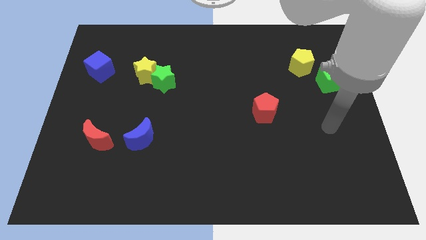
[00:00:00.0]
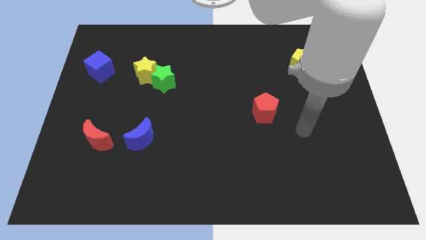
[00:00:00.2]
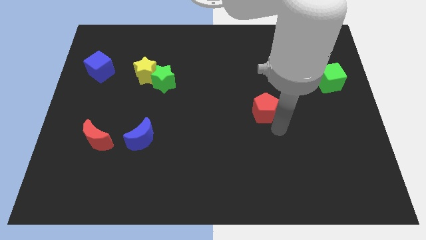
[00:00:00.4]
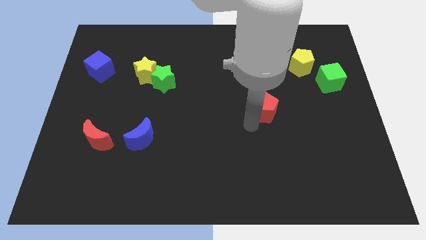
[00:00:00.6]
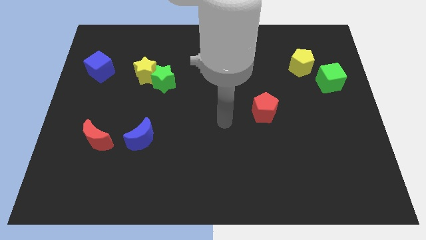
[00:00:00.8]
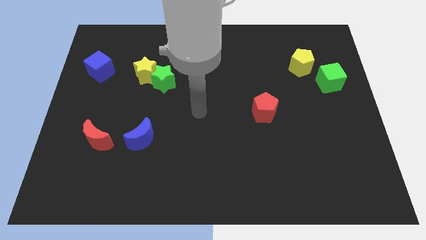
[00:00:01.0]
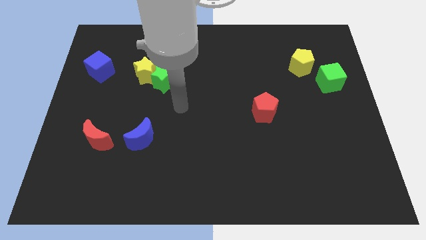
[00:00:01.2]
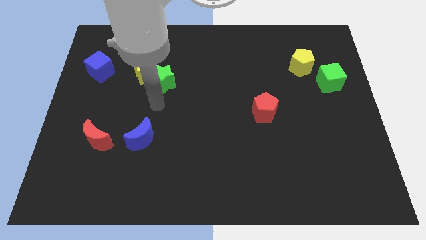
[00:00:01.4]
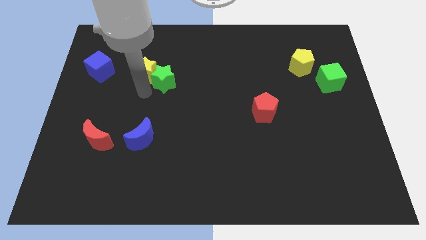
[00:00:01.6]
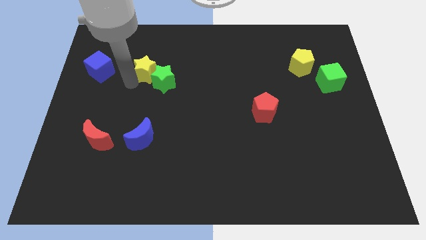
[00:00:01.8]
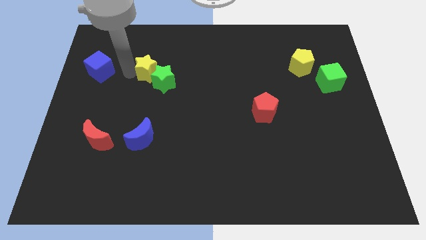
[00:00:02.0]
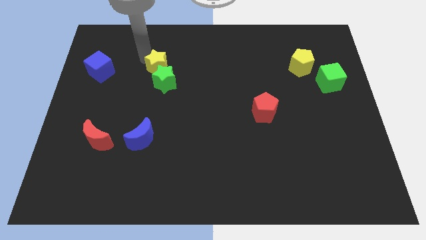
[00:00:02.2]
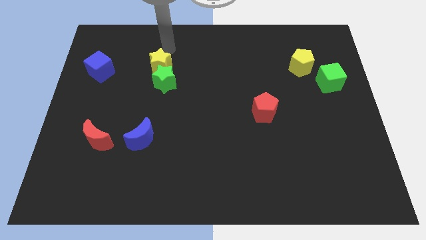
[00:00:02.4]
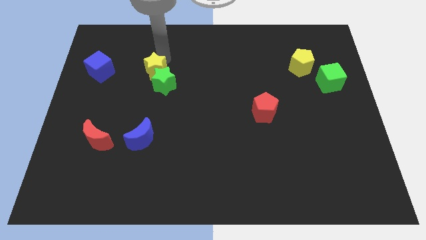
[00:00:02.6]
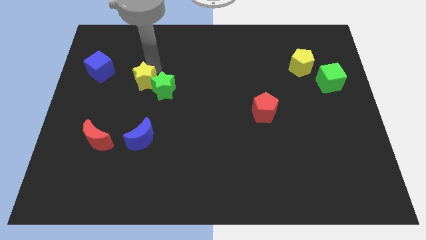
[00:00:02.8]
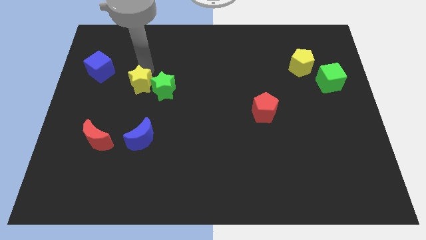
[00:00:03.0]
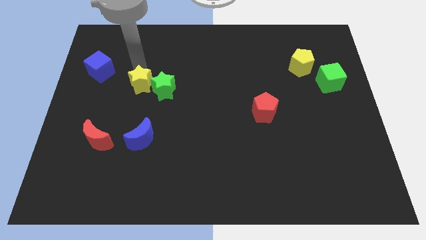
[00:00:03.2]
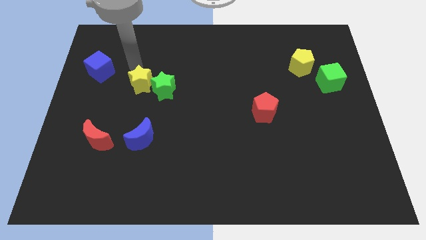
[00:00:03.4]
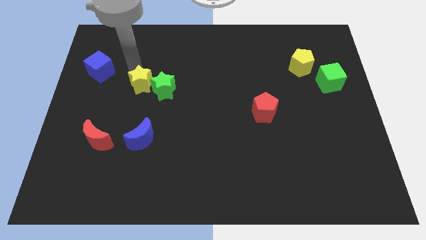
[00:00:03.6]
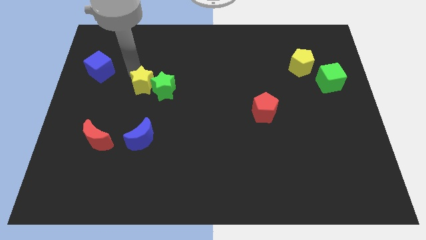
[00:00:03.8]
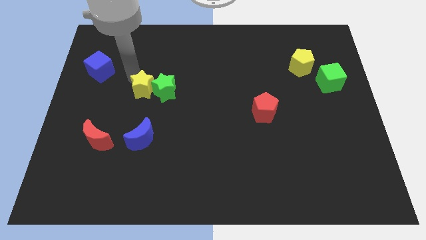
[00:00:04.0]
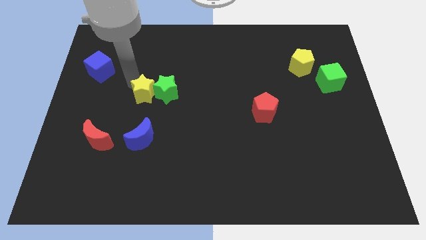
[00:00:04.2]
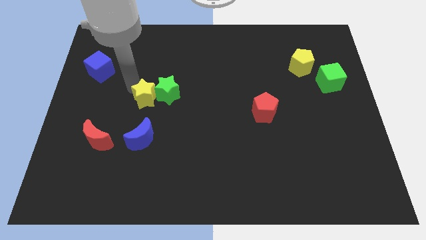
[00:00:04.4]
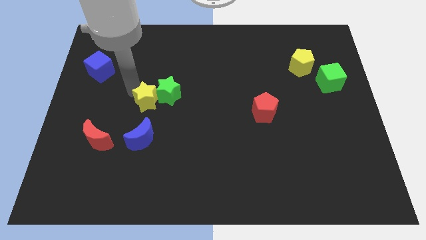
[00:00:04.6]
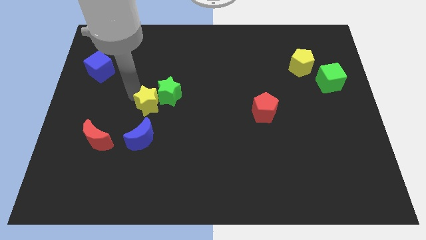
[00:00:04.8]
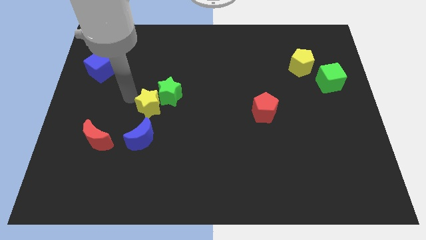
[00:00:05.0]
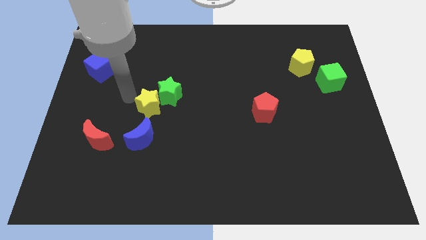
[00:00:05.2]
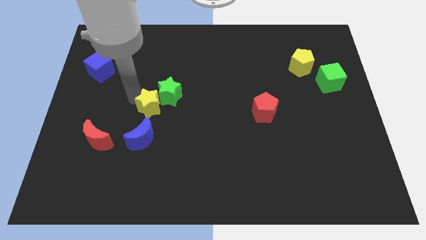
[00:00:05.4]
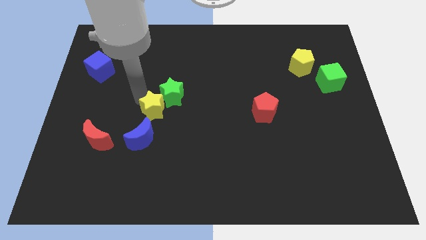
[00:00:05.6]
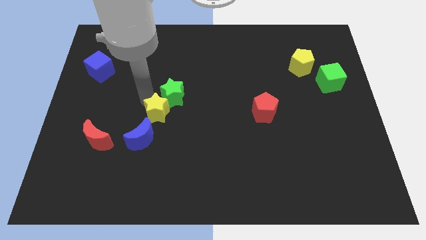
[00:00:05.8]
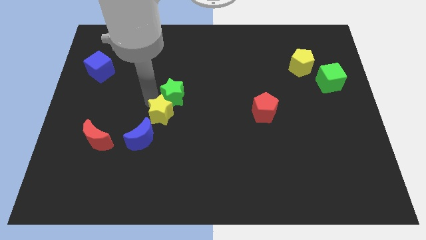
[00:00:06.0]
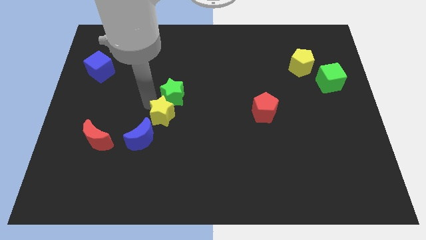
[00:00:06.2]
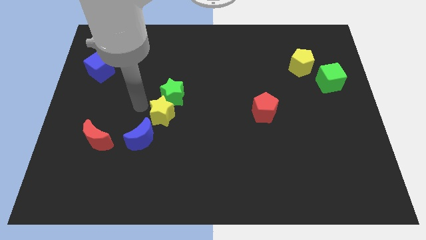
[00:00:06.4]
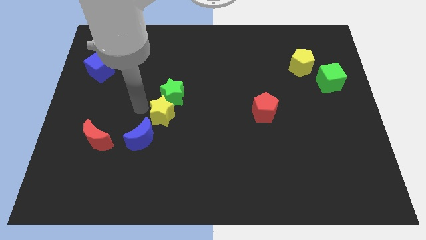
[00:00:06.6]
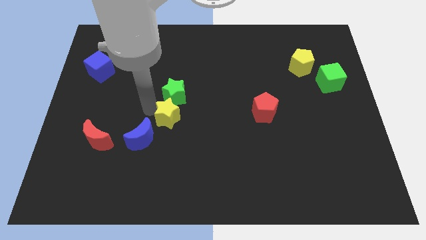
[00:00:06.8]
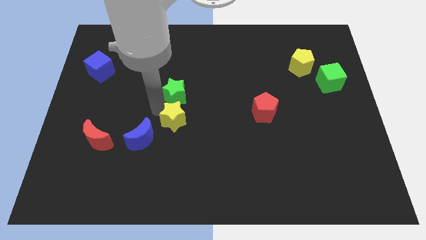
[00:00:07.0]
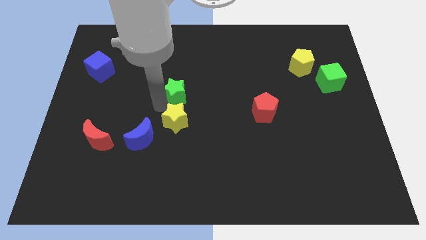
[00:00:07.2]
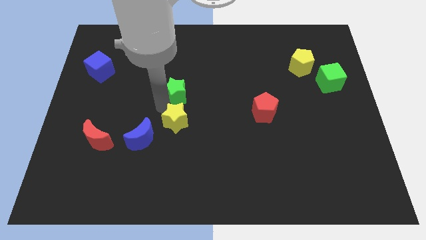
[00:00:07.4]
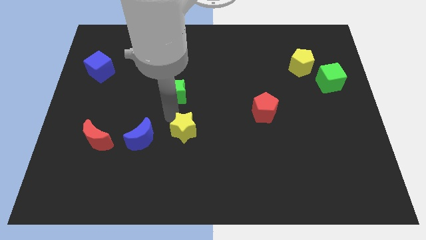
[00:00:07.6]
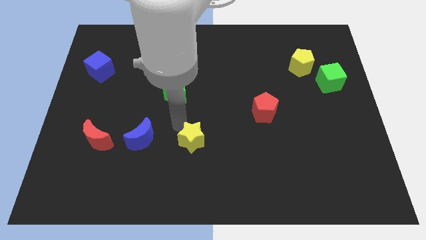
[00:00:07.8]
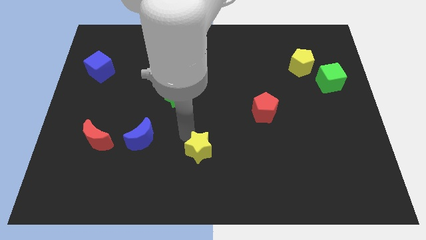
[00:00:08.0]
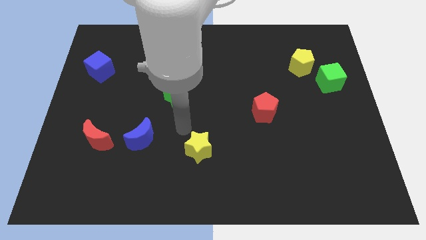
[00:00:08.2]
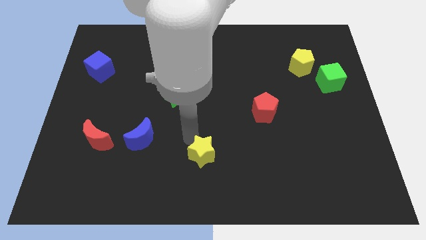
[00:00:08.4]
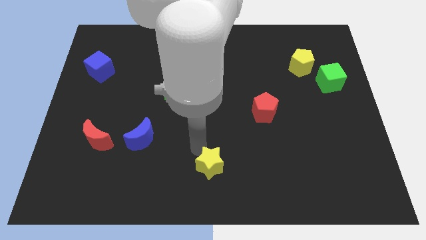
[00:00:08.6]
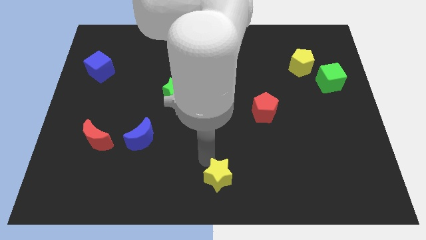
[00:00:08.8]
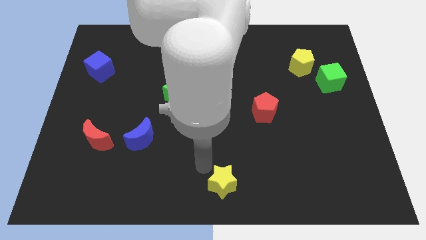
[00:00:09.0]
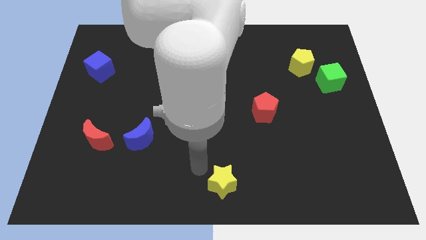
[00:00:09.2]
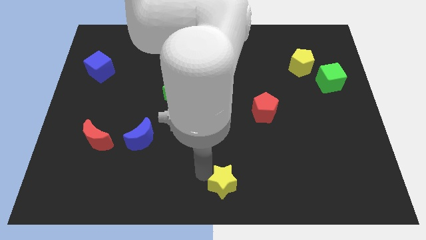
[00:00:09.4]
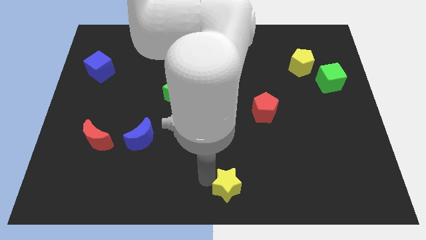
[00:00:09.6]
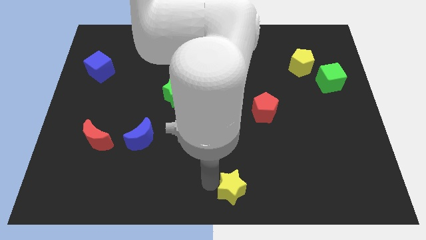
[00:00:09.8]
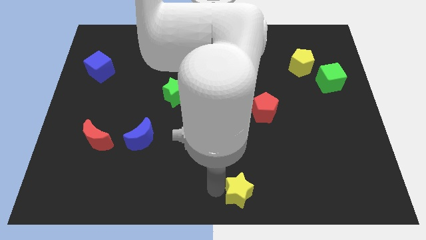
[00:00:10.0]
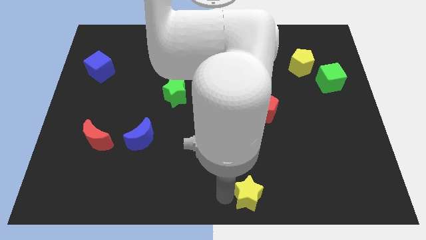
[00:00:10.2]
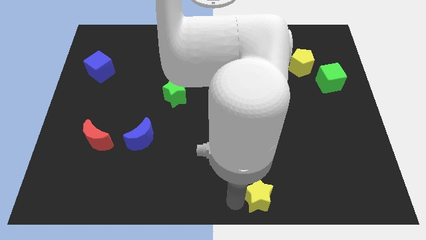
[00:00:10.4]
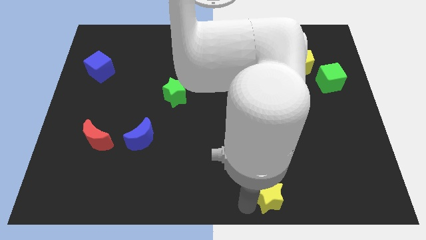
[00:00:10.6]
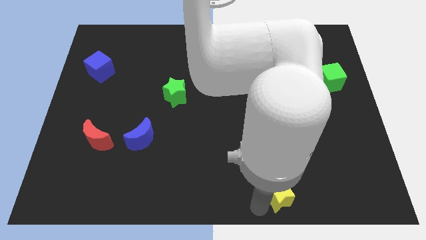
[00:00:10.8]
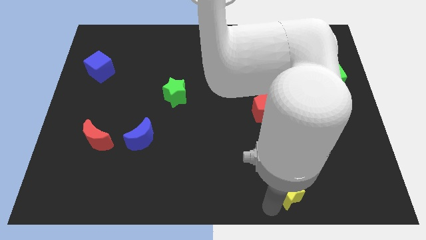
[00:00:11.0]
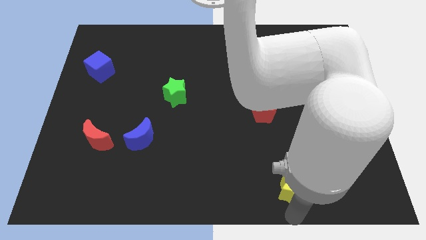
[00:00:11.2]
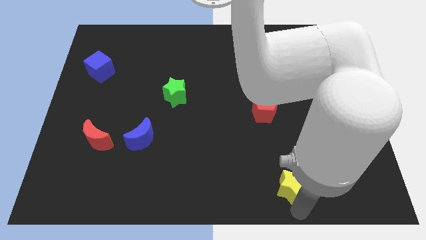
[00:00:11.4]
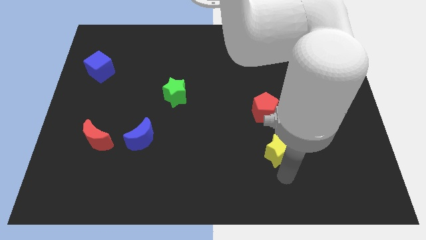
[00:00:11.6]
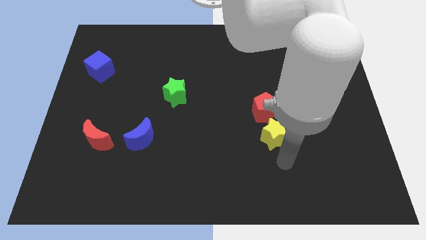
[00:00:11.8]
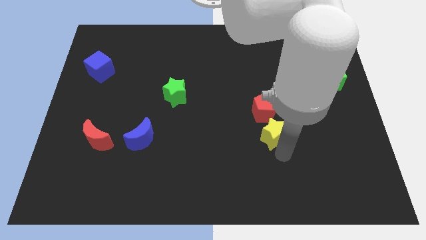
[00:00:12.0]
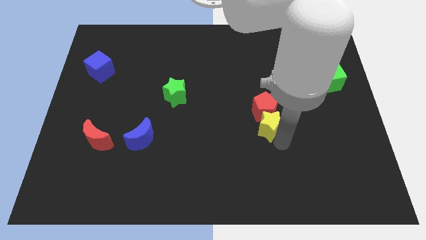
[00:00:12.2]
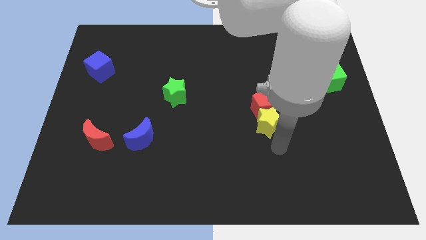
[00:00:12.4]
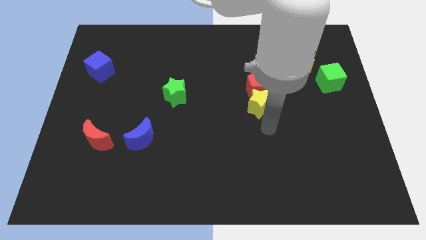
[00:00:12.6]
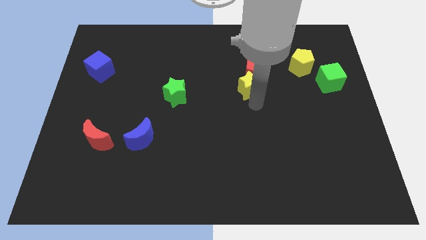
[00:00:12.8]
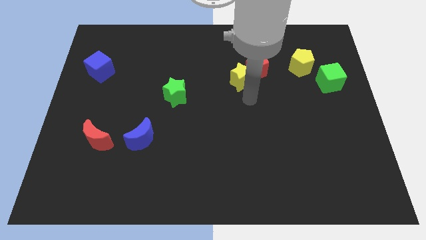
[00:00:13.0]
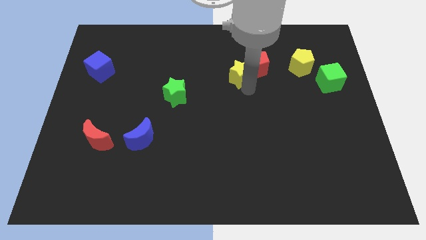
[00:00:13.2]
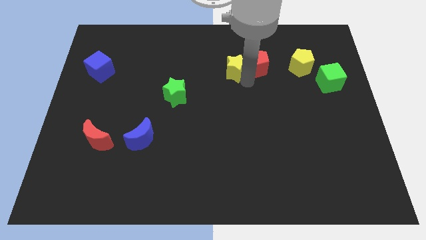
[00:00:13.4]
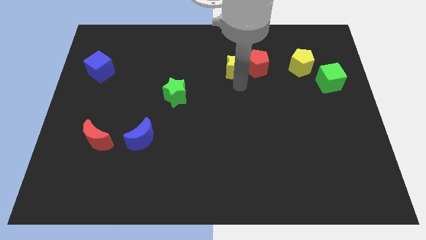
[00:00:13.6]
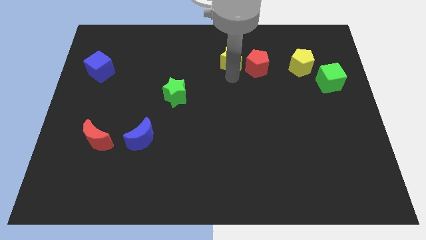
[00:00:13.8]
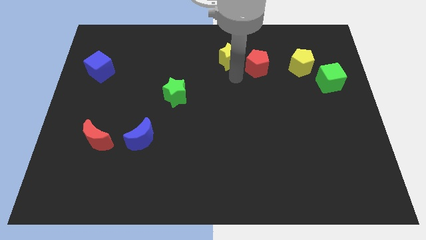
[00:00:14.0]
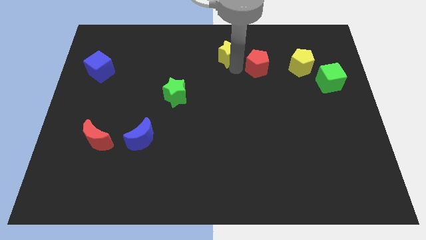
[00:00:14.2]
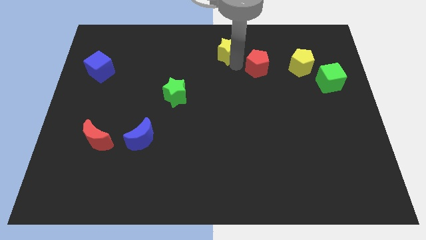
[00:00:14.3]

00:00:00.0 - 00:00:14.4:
slide the yellow star to the towards your base
